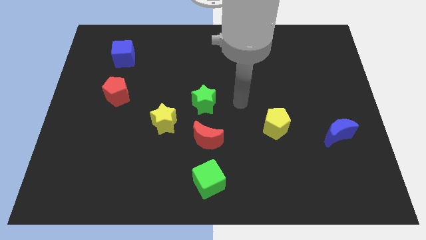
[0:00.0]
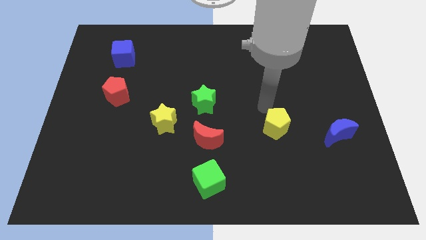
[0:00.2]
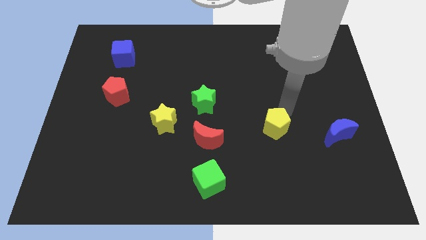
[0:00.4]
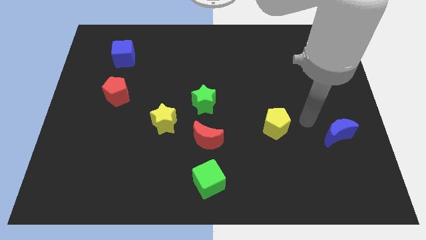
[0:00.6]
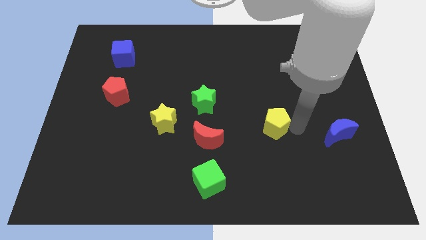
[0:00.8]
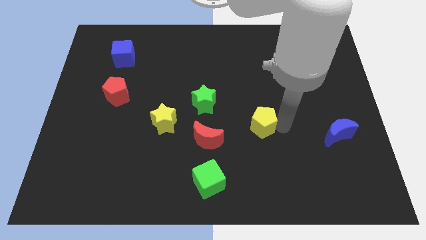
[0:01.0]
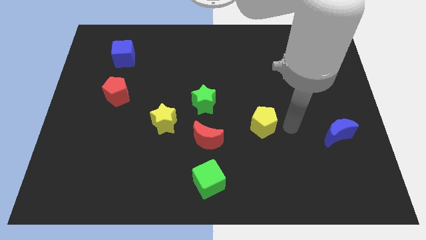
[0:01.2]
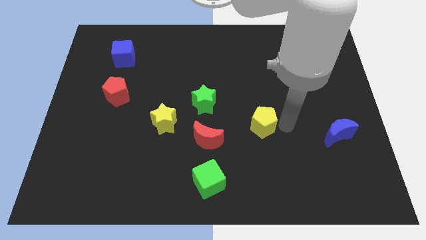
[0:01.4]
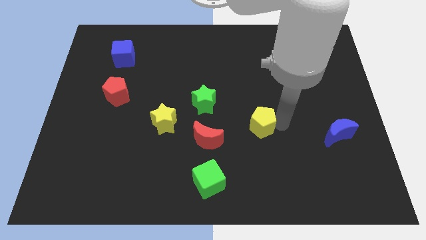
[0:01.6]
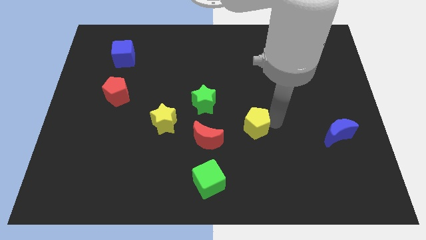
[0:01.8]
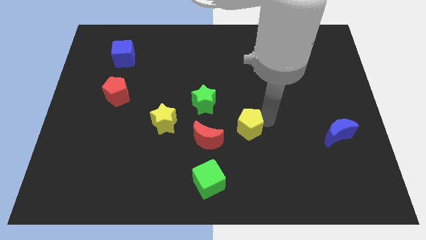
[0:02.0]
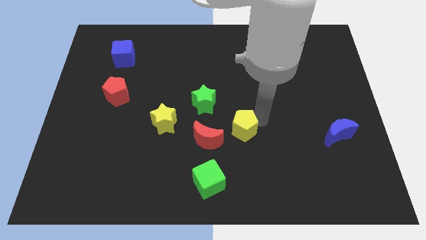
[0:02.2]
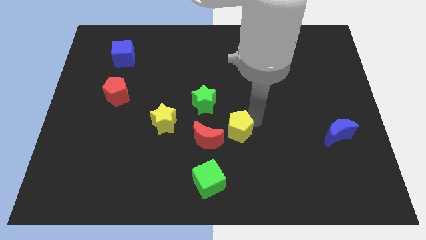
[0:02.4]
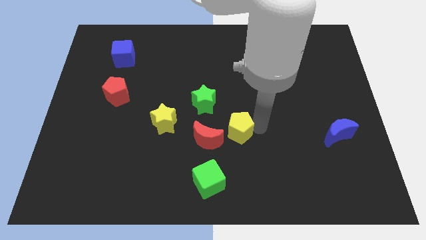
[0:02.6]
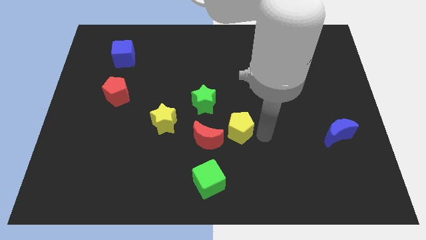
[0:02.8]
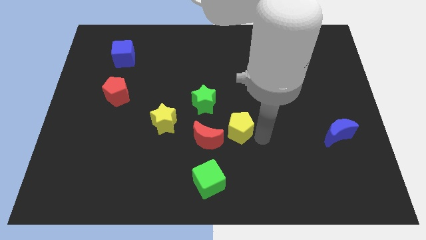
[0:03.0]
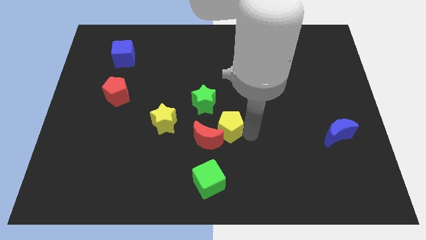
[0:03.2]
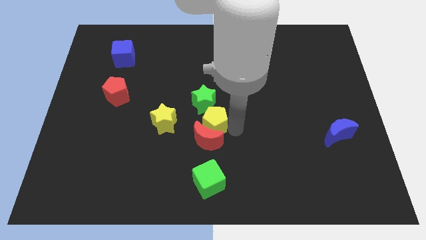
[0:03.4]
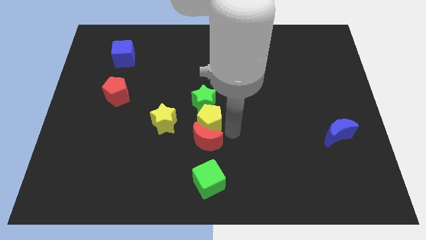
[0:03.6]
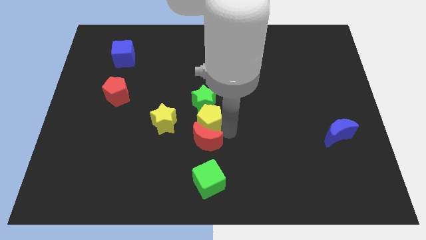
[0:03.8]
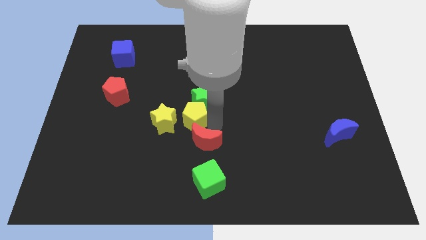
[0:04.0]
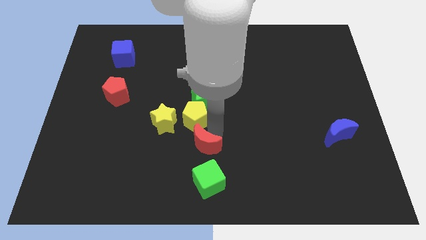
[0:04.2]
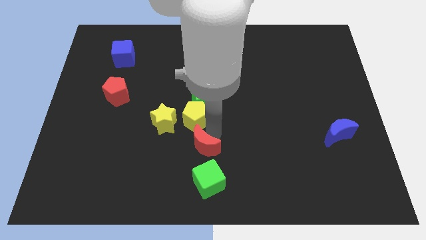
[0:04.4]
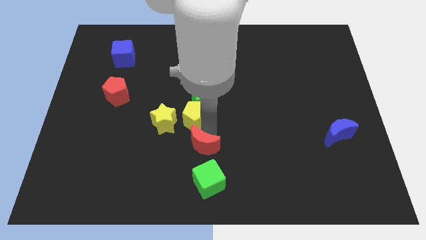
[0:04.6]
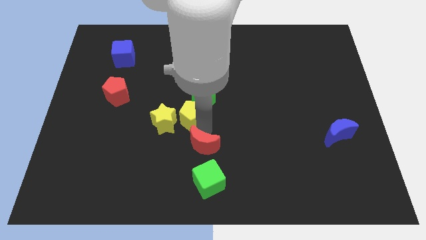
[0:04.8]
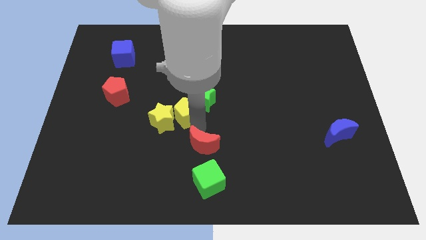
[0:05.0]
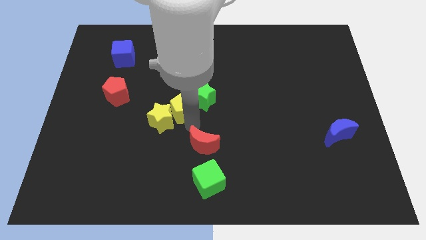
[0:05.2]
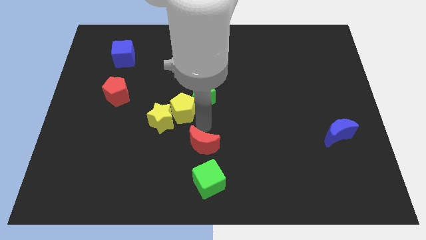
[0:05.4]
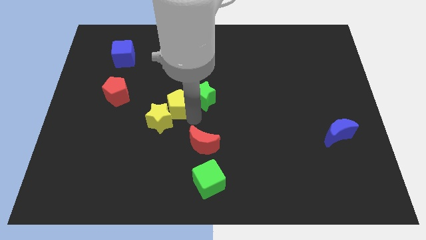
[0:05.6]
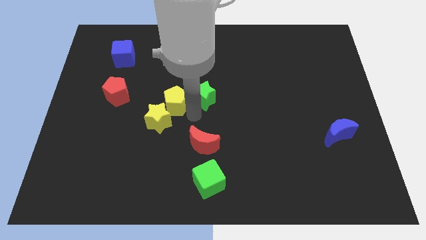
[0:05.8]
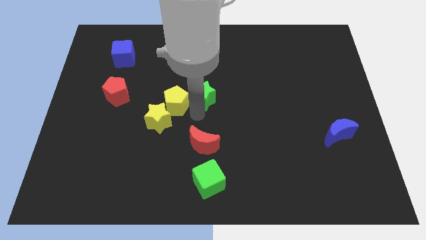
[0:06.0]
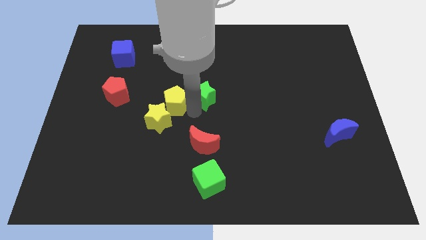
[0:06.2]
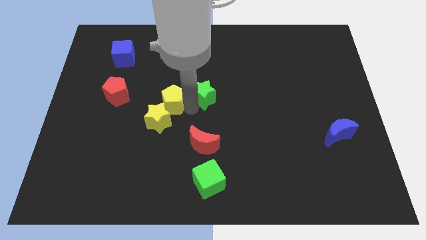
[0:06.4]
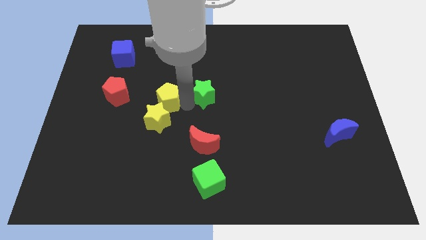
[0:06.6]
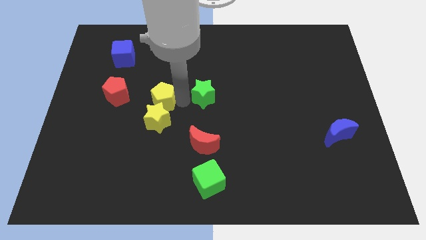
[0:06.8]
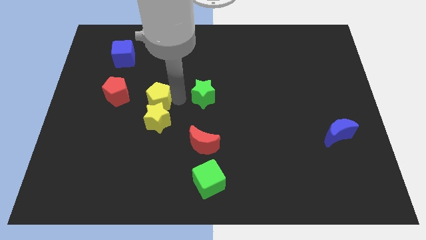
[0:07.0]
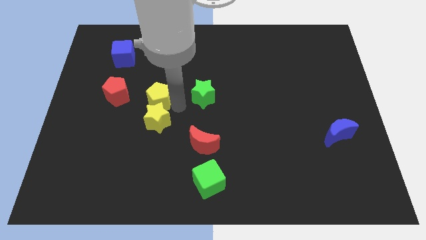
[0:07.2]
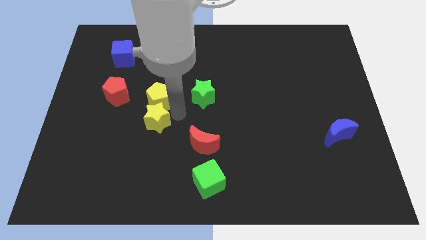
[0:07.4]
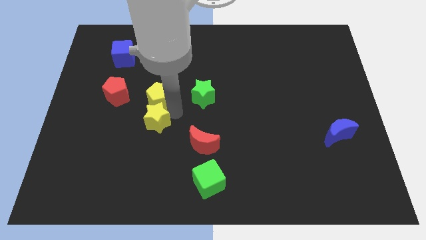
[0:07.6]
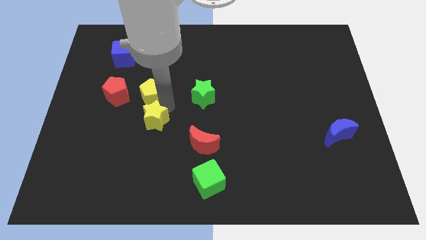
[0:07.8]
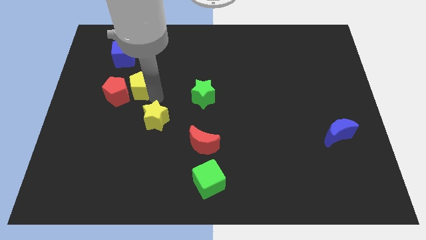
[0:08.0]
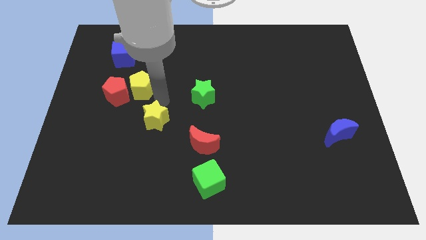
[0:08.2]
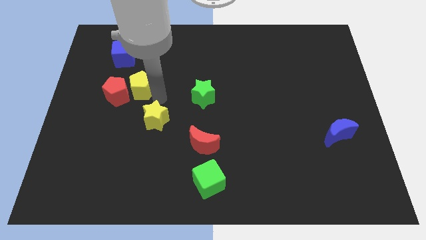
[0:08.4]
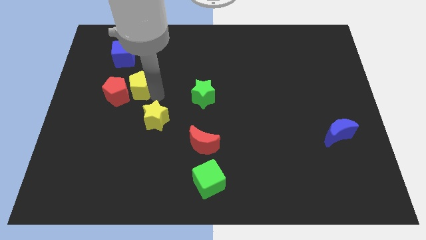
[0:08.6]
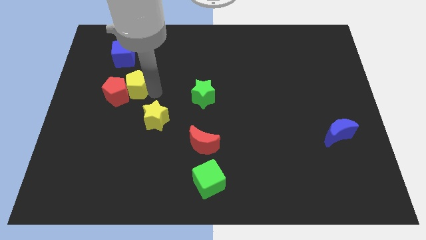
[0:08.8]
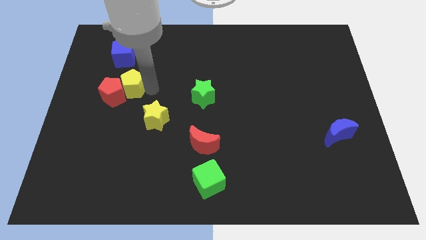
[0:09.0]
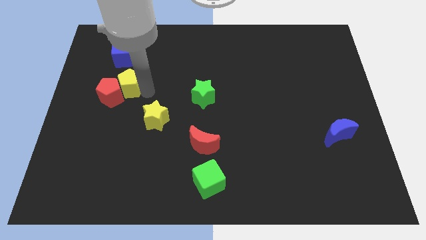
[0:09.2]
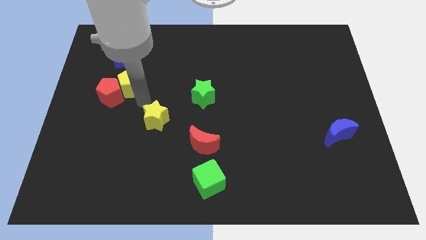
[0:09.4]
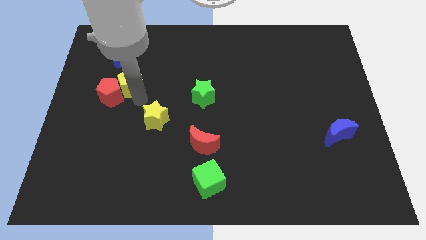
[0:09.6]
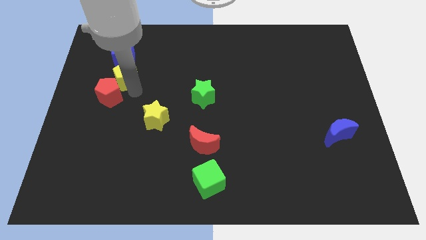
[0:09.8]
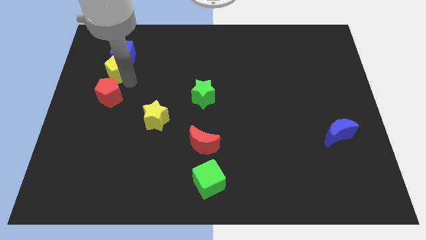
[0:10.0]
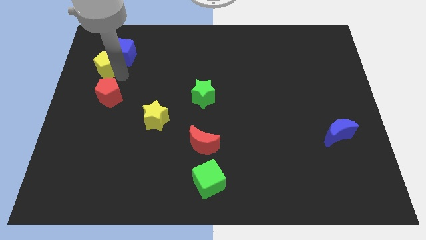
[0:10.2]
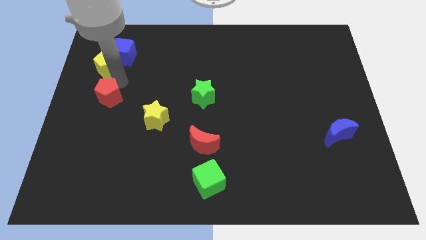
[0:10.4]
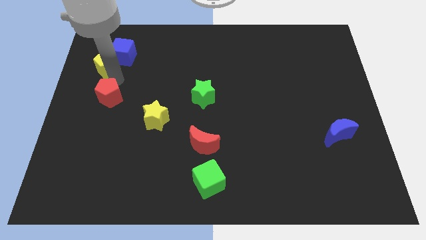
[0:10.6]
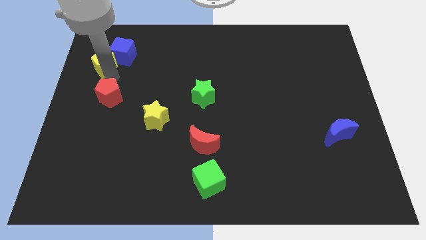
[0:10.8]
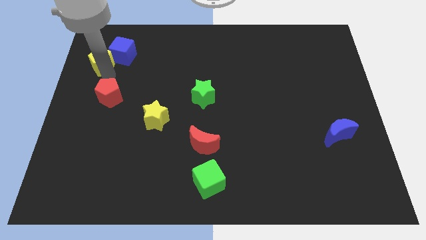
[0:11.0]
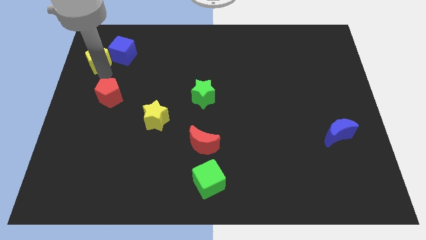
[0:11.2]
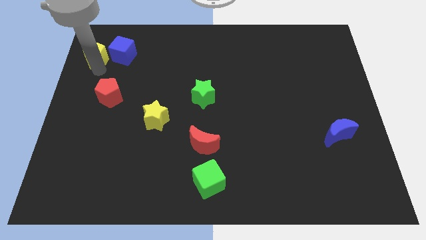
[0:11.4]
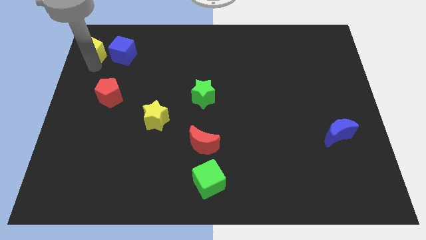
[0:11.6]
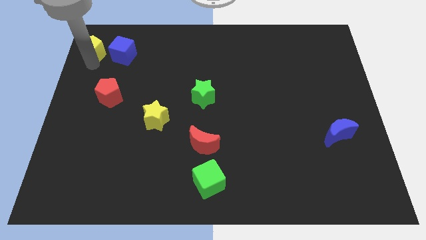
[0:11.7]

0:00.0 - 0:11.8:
move the yellow pentagon to the upper left corner

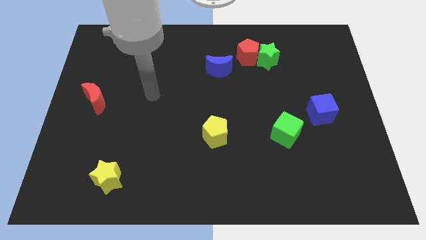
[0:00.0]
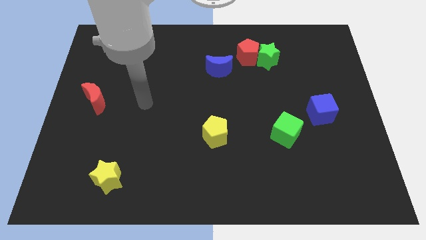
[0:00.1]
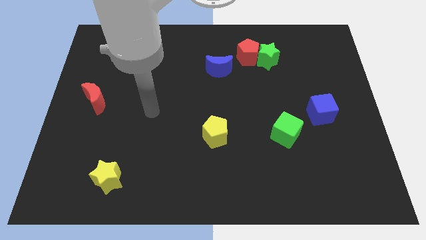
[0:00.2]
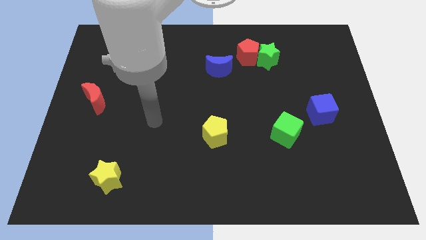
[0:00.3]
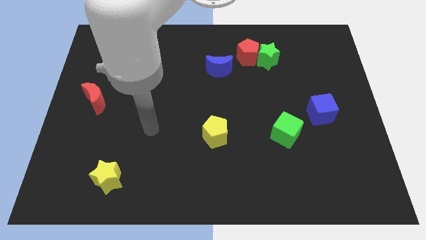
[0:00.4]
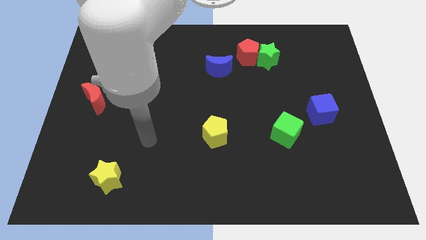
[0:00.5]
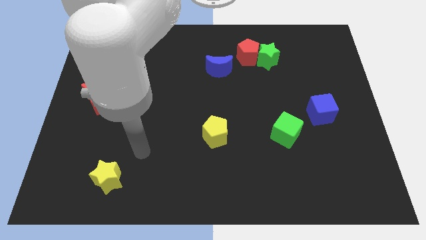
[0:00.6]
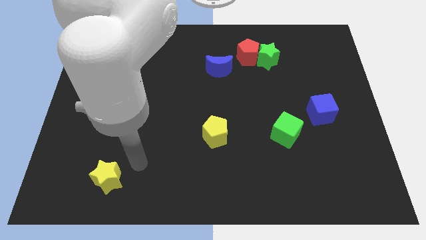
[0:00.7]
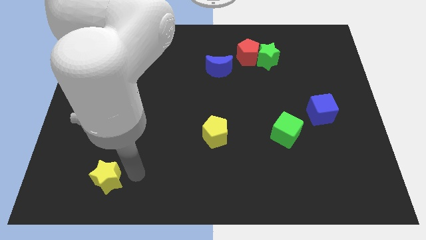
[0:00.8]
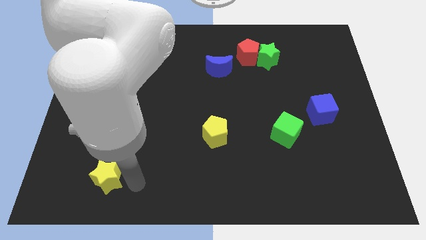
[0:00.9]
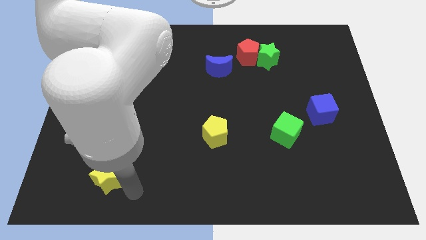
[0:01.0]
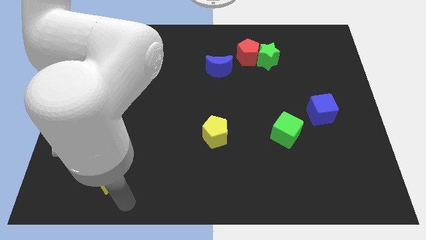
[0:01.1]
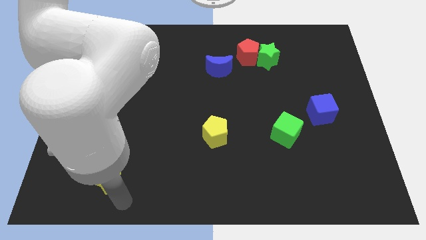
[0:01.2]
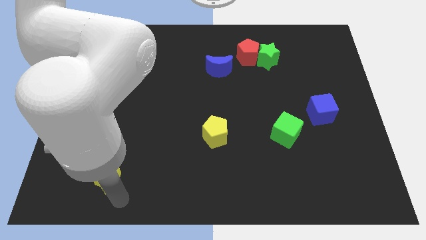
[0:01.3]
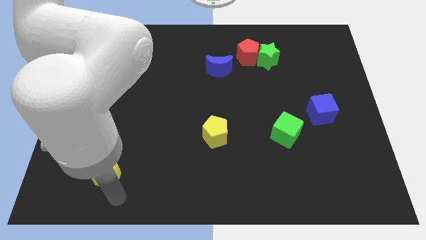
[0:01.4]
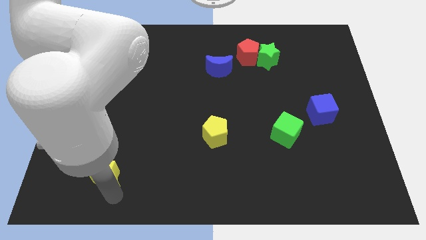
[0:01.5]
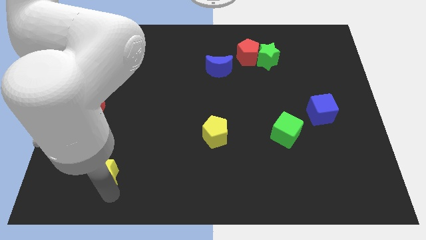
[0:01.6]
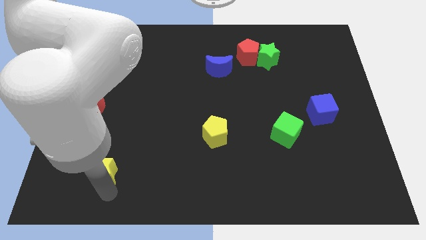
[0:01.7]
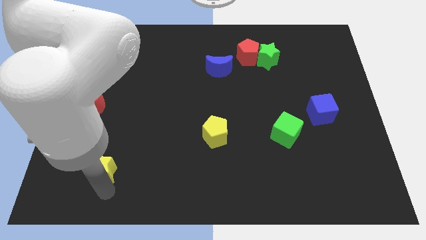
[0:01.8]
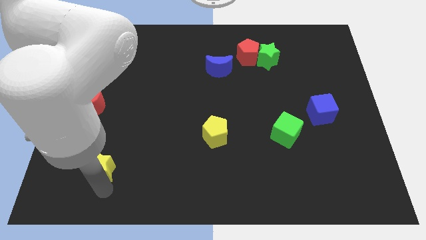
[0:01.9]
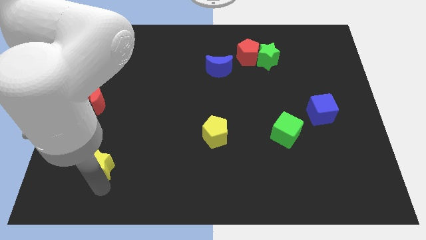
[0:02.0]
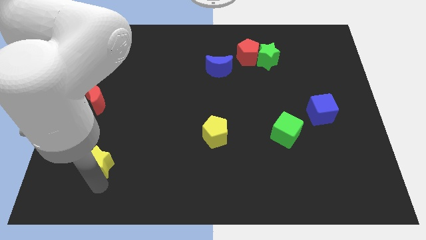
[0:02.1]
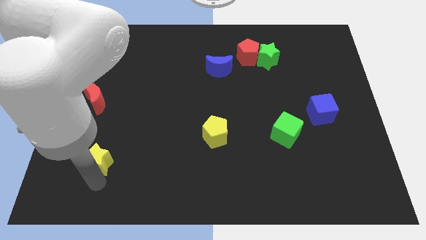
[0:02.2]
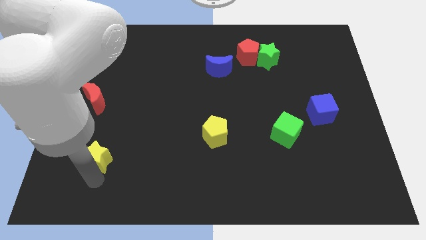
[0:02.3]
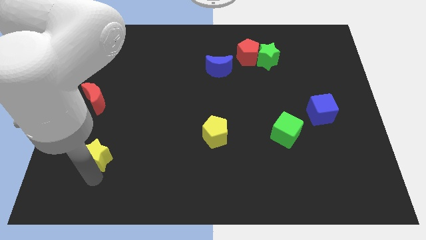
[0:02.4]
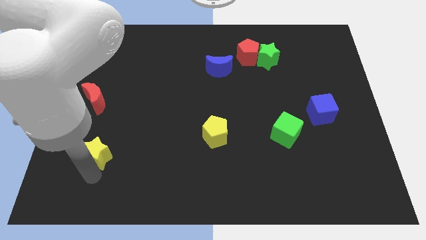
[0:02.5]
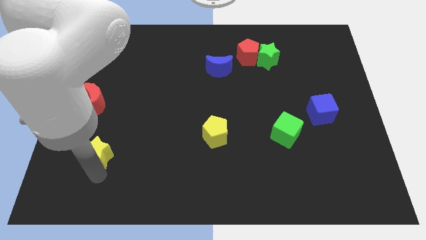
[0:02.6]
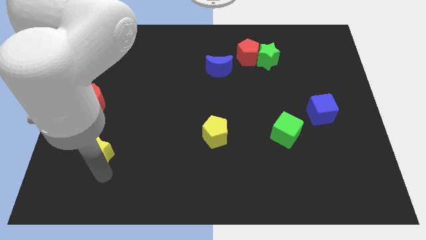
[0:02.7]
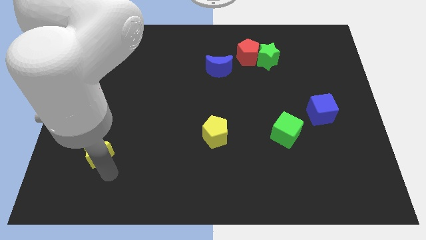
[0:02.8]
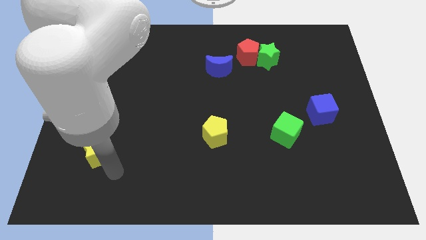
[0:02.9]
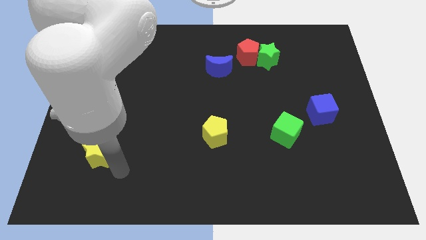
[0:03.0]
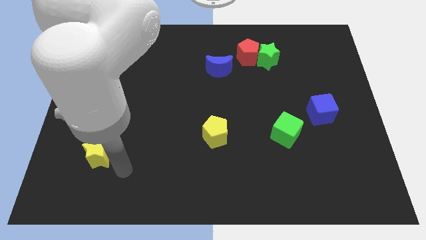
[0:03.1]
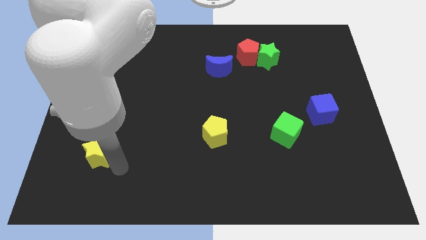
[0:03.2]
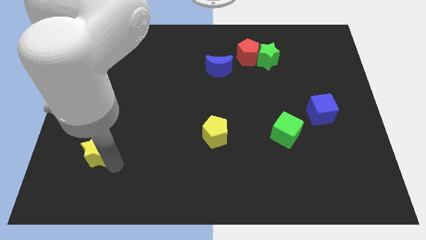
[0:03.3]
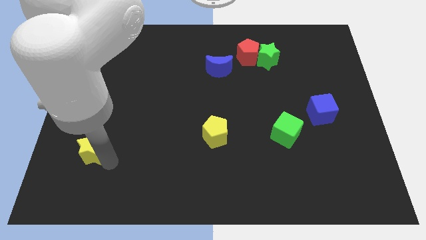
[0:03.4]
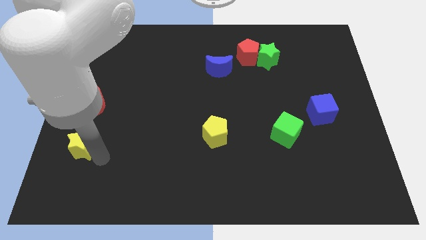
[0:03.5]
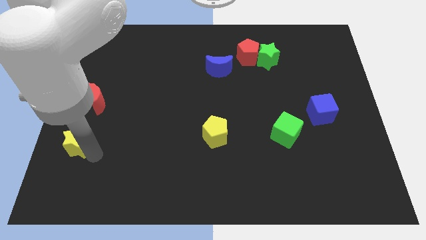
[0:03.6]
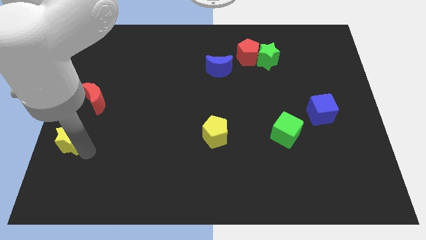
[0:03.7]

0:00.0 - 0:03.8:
move the yellow star to the left side of the board
